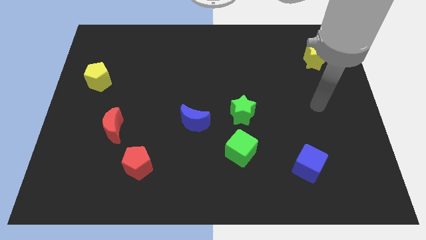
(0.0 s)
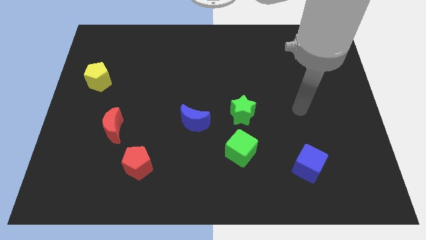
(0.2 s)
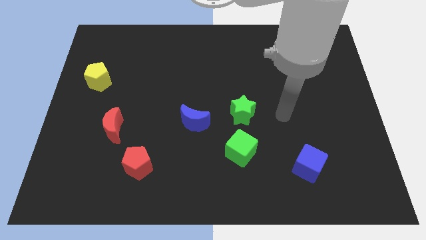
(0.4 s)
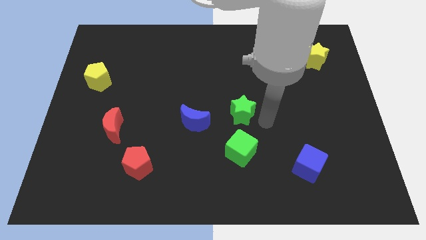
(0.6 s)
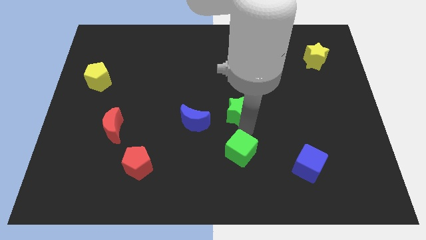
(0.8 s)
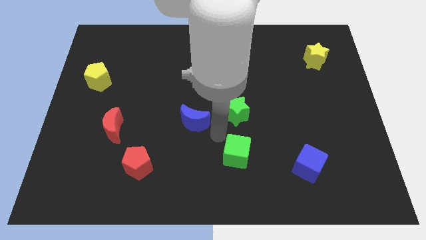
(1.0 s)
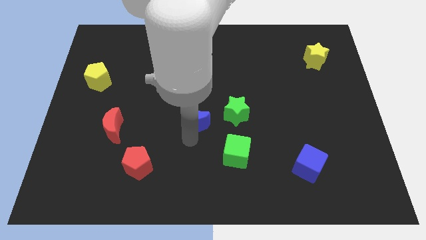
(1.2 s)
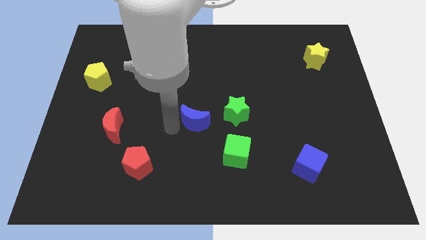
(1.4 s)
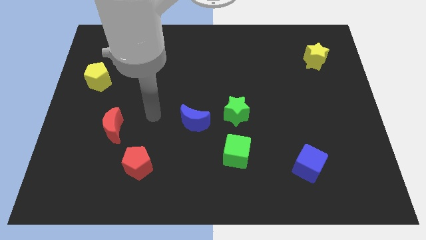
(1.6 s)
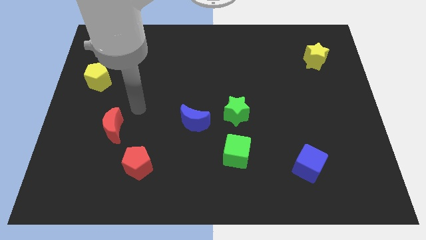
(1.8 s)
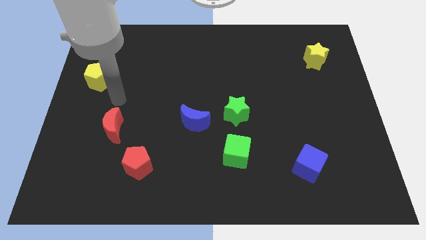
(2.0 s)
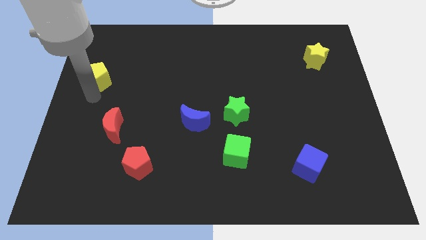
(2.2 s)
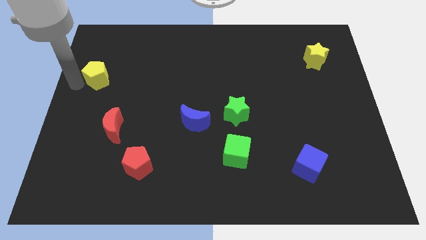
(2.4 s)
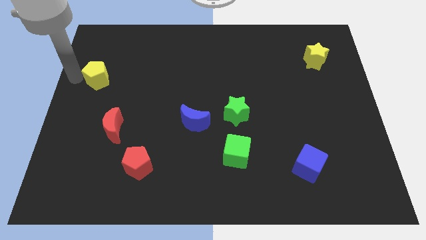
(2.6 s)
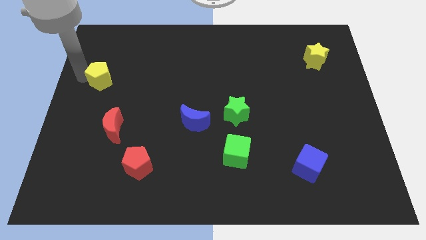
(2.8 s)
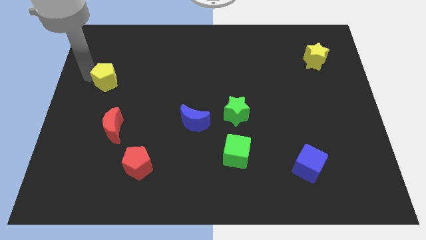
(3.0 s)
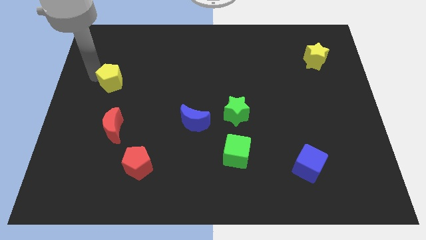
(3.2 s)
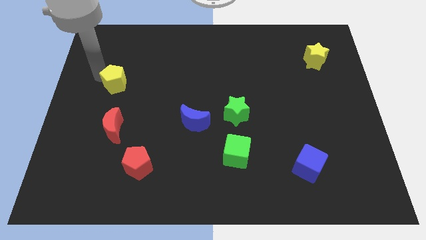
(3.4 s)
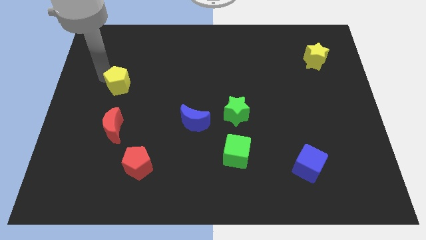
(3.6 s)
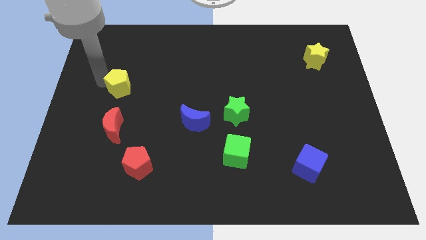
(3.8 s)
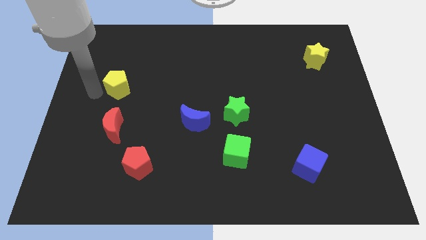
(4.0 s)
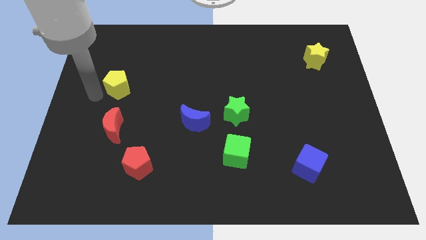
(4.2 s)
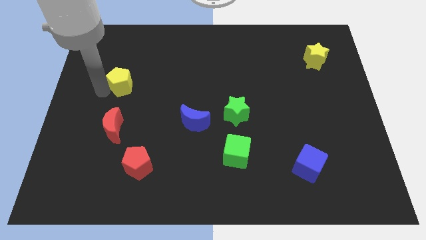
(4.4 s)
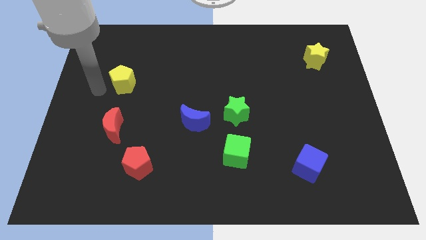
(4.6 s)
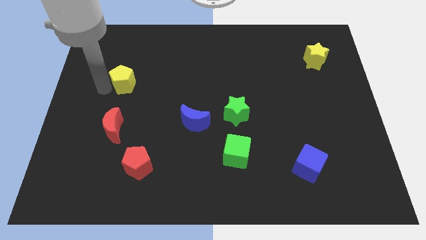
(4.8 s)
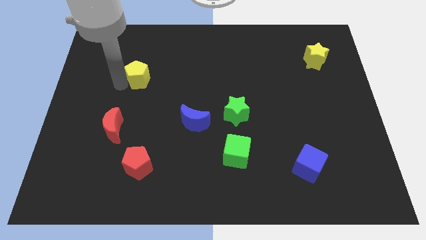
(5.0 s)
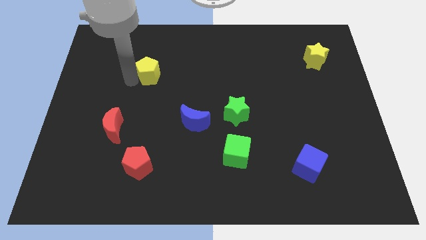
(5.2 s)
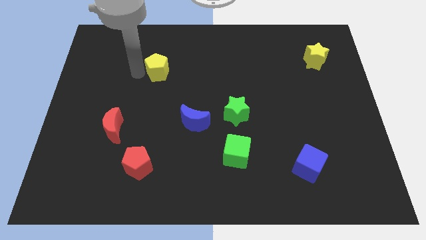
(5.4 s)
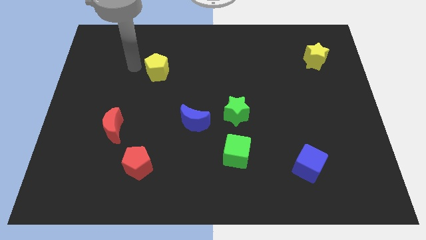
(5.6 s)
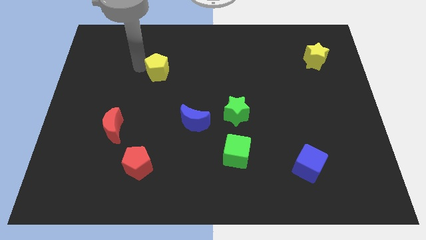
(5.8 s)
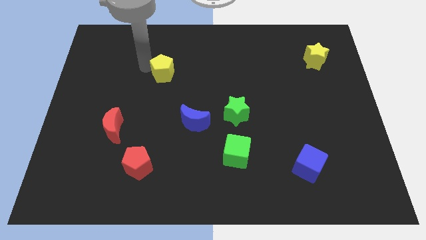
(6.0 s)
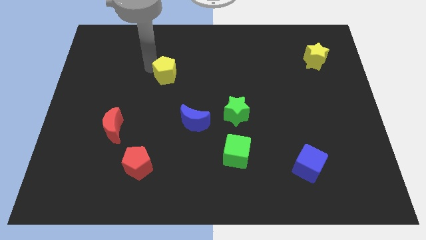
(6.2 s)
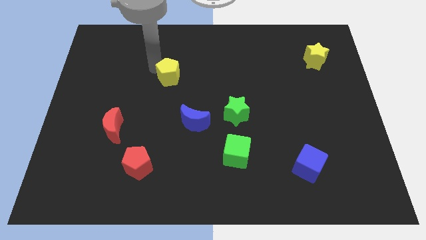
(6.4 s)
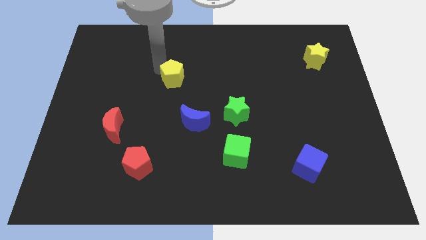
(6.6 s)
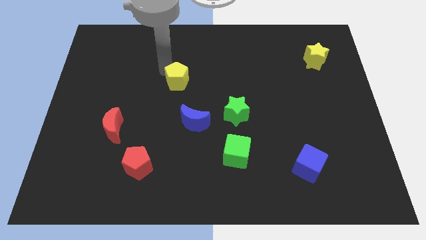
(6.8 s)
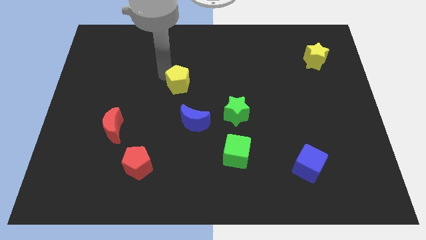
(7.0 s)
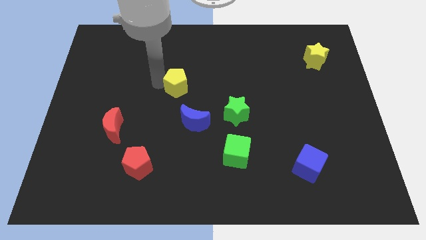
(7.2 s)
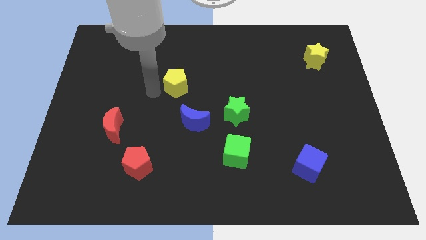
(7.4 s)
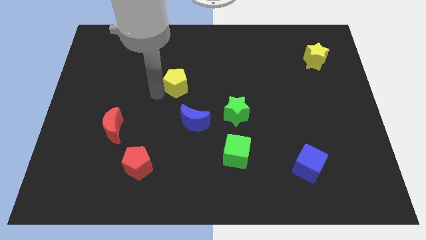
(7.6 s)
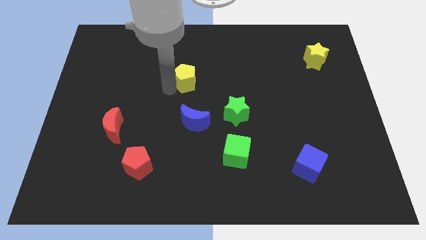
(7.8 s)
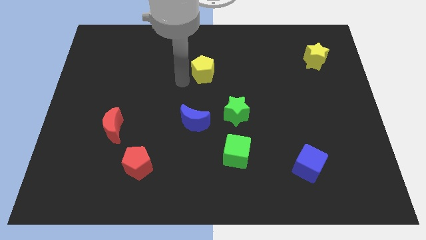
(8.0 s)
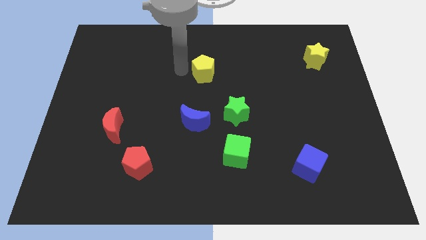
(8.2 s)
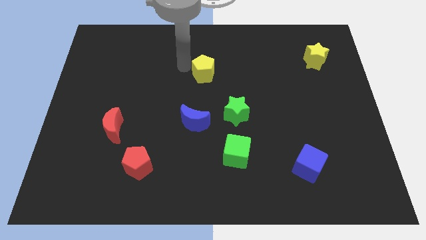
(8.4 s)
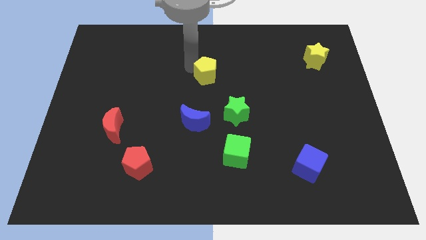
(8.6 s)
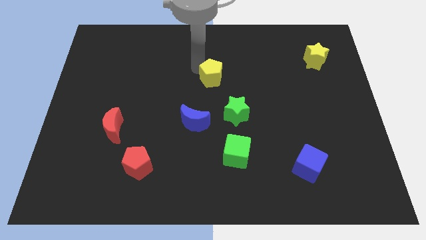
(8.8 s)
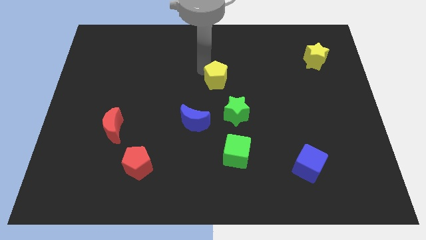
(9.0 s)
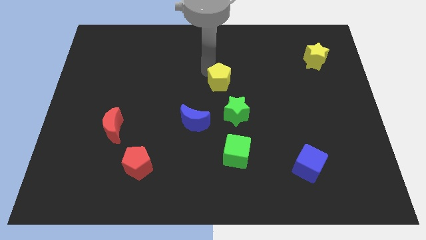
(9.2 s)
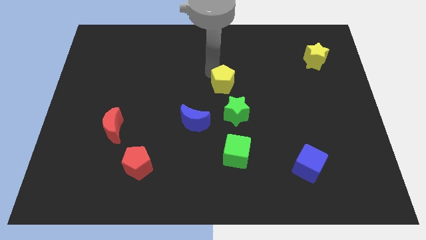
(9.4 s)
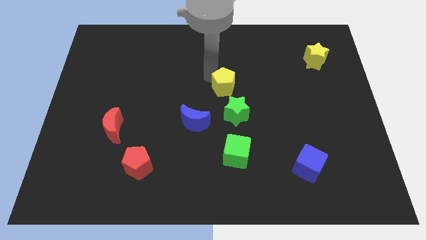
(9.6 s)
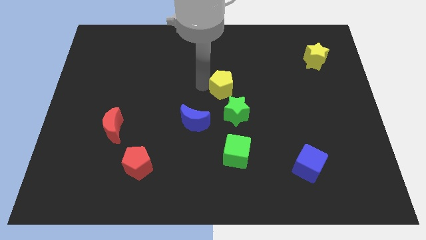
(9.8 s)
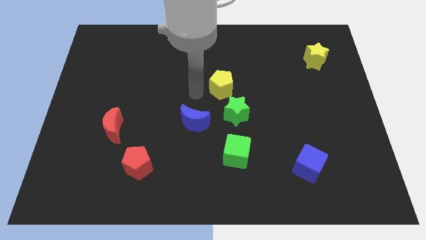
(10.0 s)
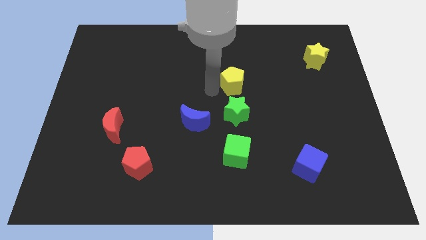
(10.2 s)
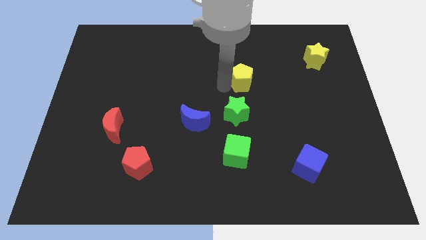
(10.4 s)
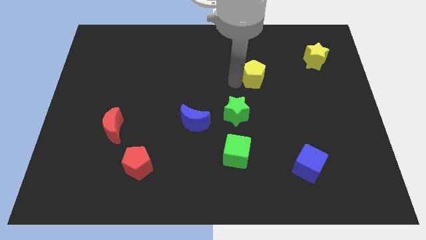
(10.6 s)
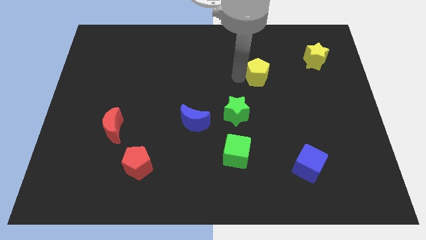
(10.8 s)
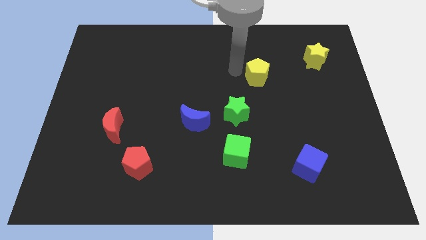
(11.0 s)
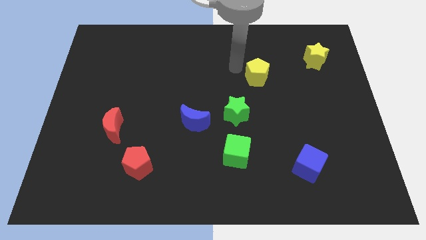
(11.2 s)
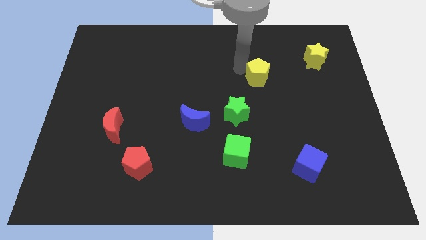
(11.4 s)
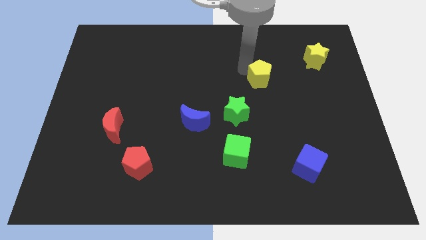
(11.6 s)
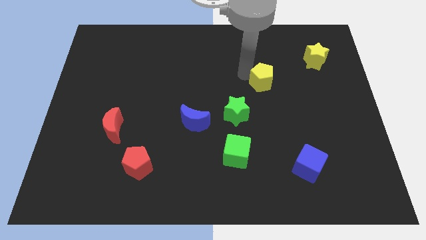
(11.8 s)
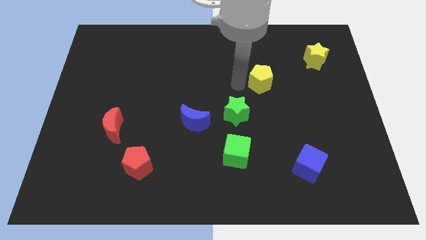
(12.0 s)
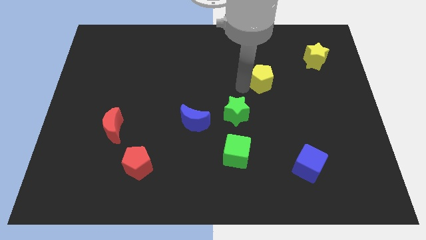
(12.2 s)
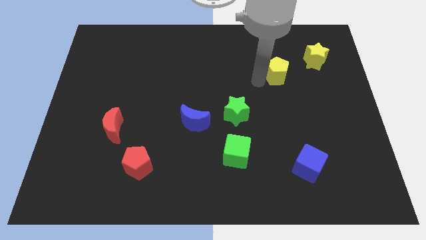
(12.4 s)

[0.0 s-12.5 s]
move the yellow pentagon to the bottom left of the yellow star

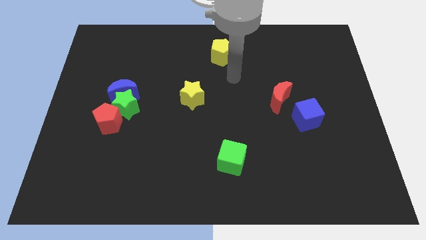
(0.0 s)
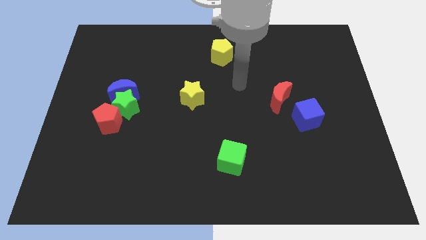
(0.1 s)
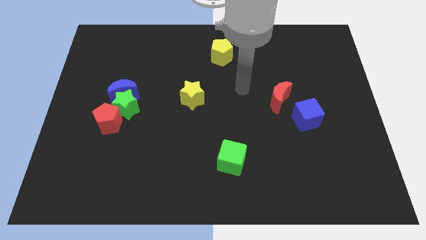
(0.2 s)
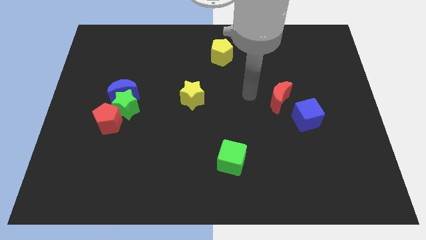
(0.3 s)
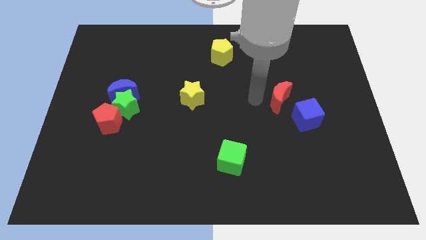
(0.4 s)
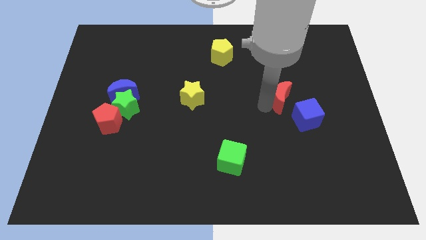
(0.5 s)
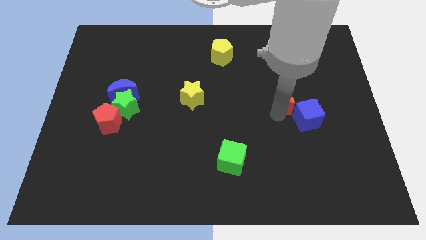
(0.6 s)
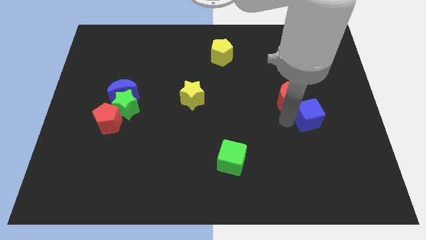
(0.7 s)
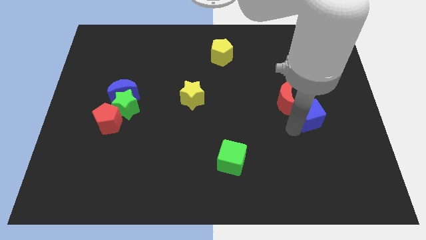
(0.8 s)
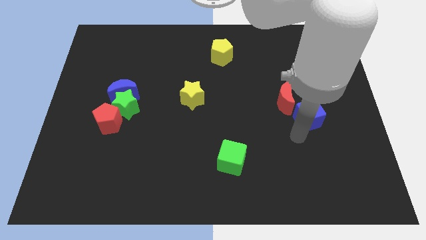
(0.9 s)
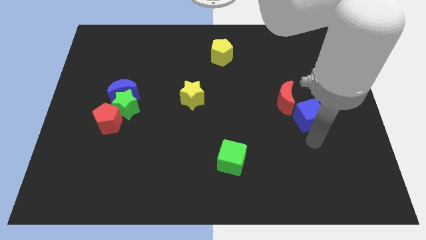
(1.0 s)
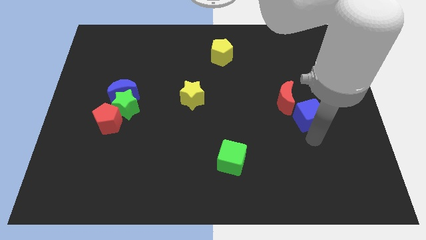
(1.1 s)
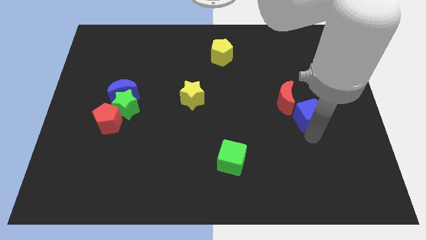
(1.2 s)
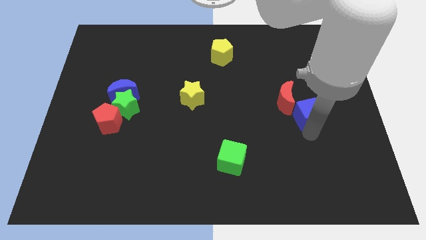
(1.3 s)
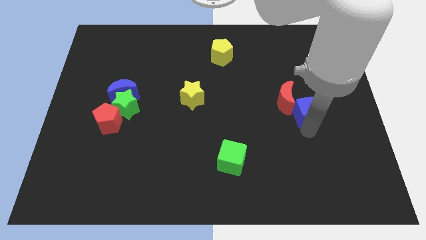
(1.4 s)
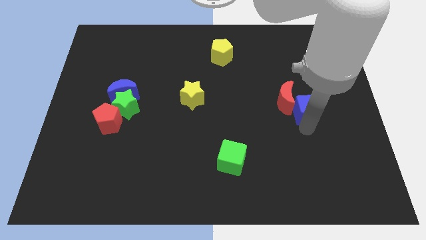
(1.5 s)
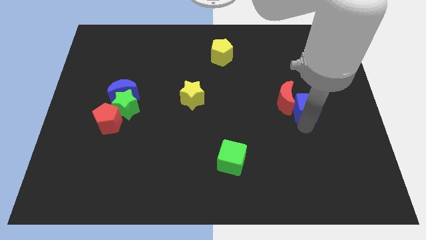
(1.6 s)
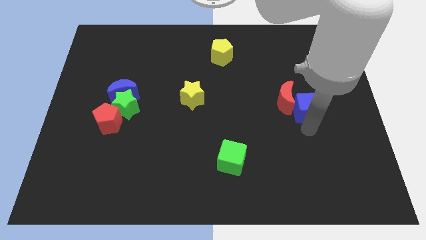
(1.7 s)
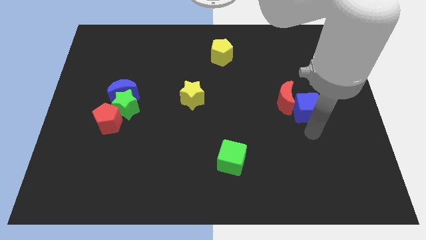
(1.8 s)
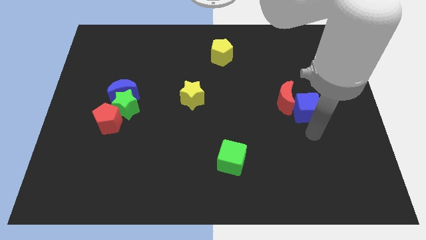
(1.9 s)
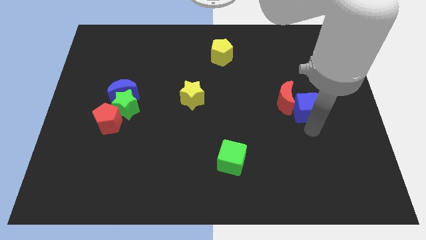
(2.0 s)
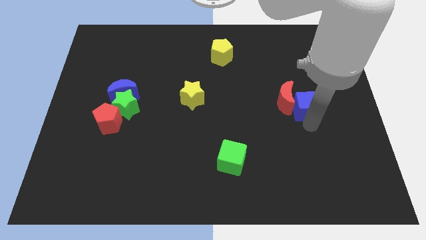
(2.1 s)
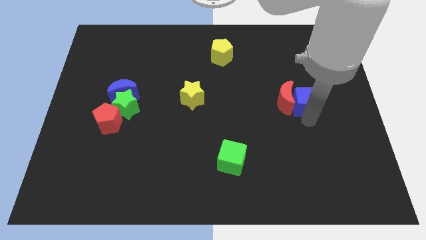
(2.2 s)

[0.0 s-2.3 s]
slide the blue cube to the top right of the red moon
